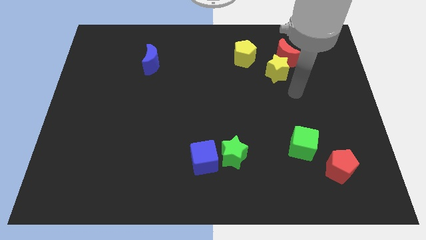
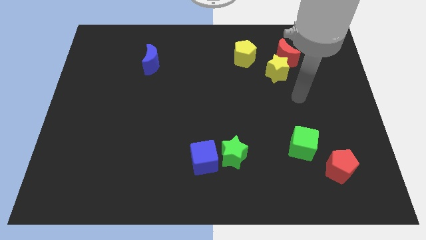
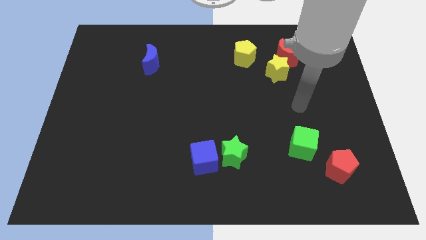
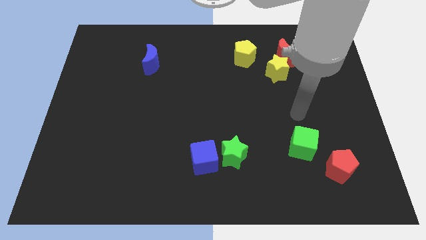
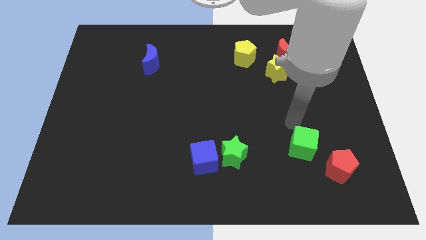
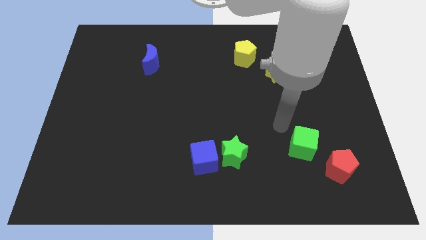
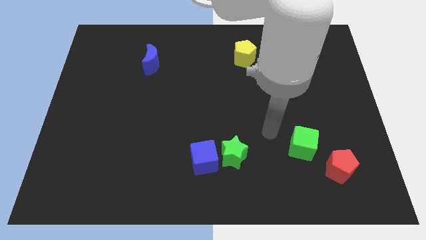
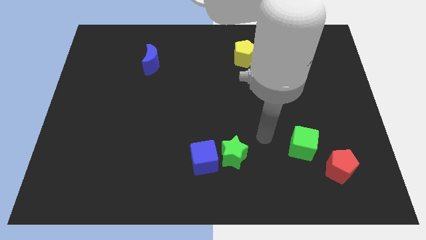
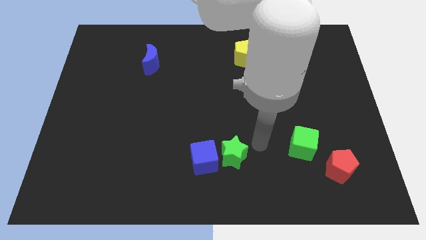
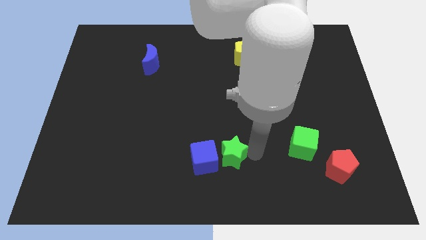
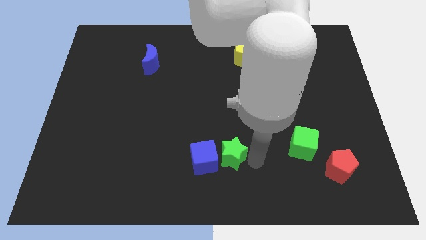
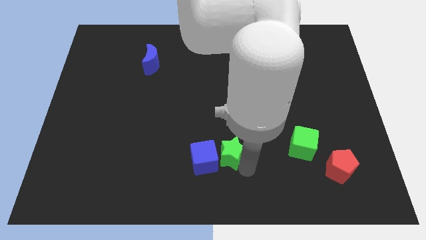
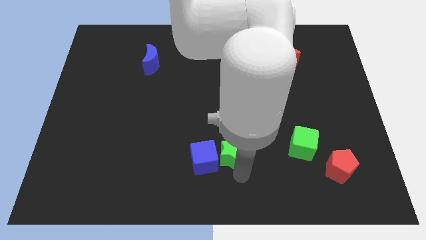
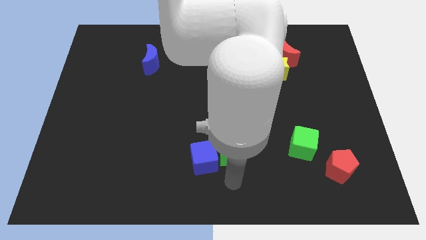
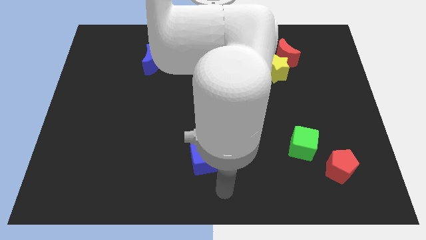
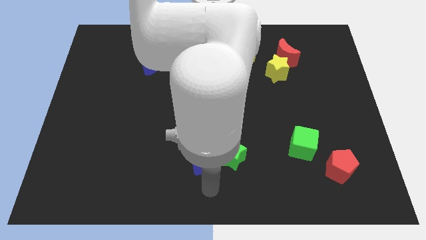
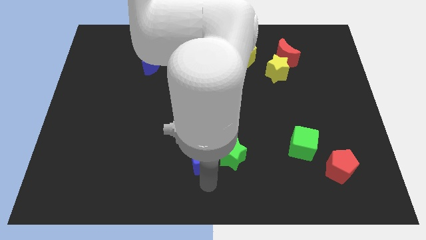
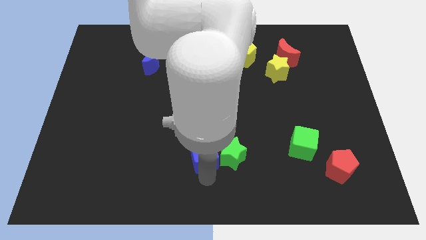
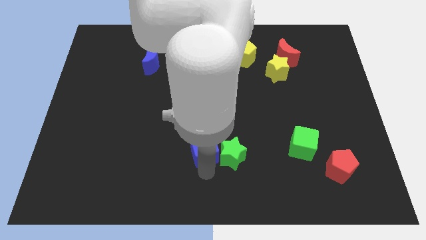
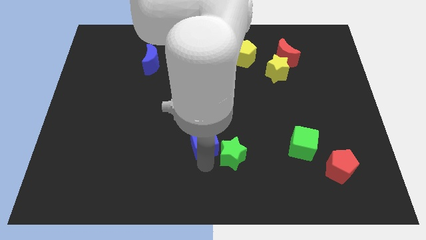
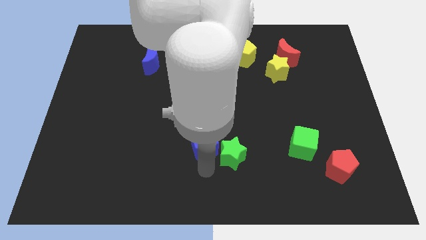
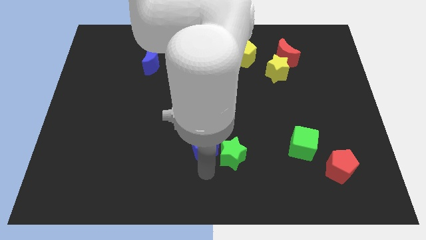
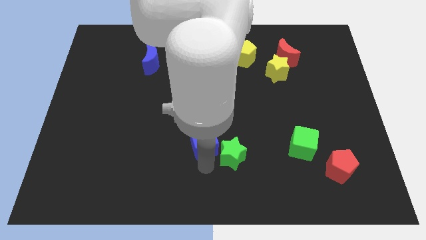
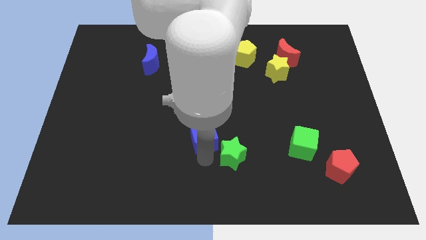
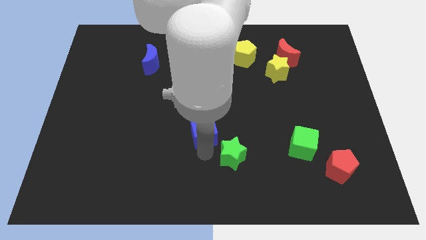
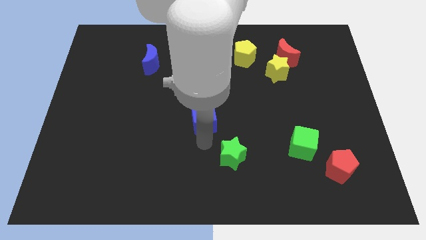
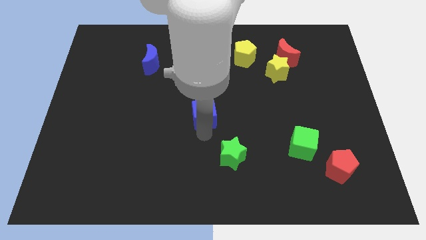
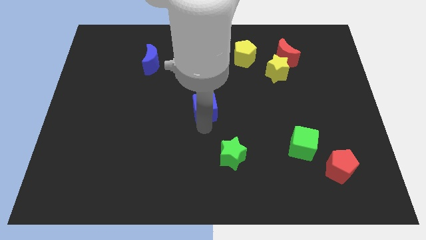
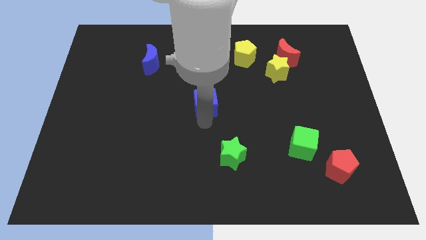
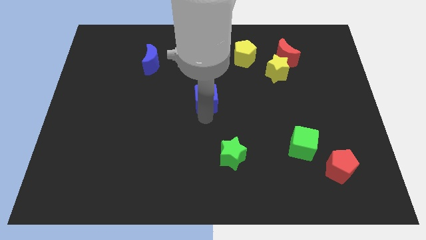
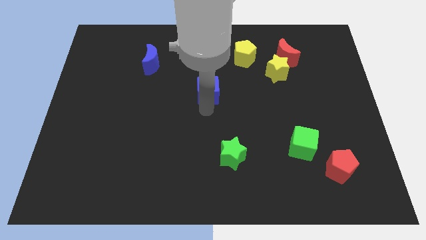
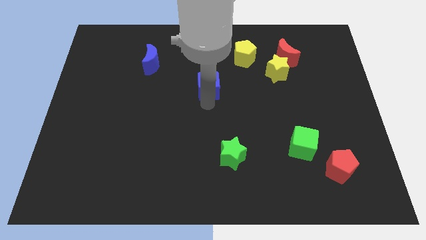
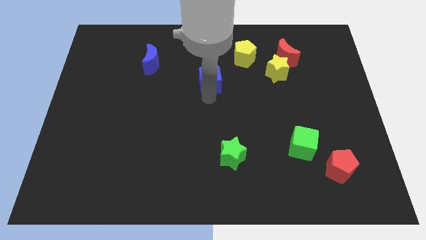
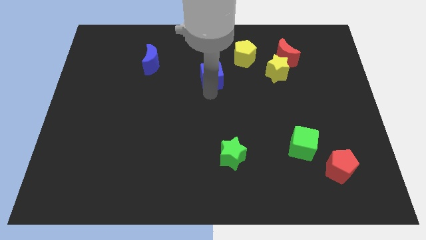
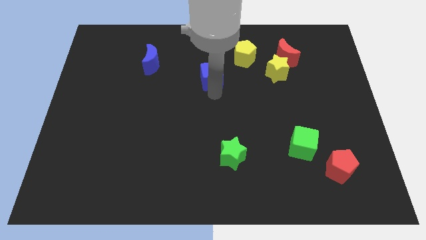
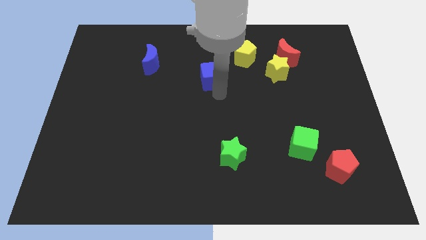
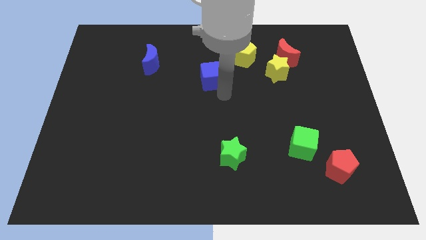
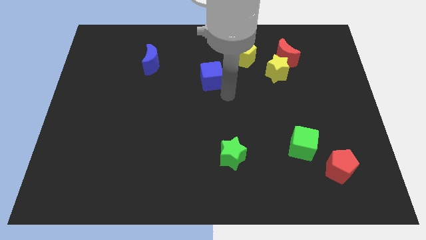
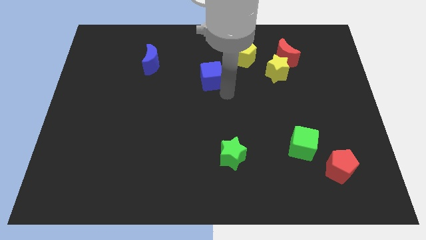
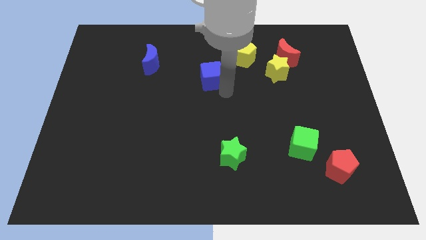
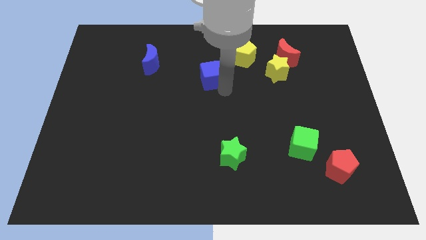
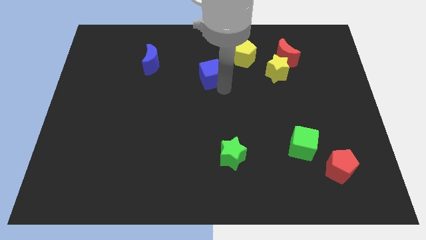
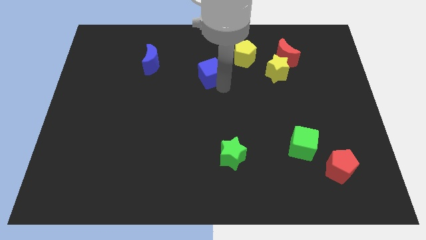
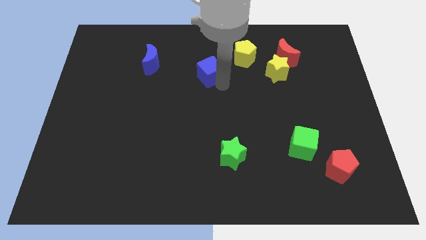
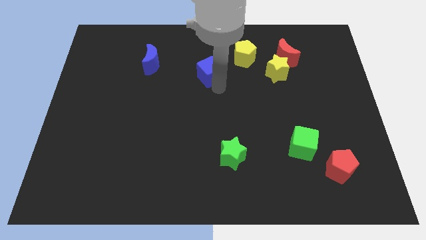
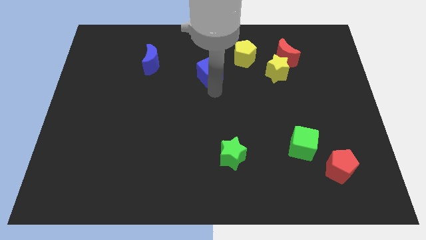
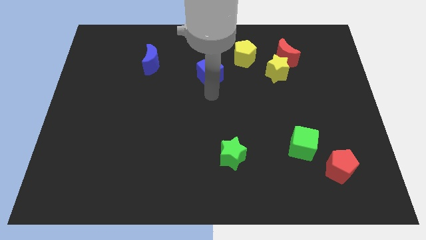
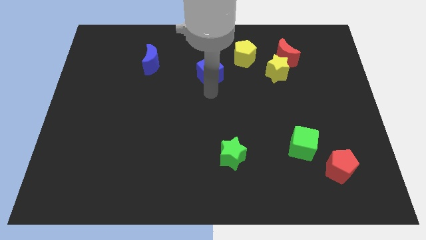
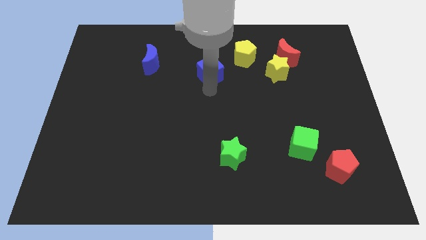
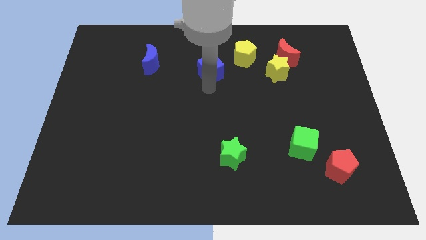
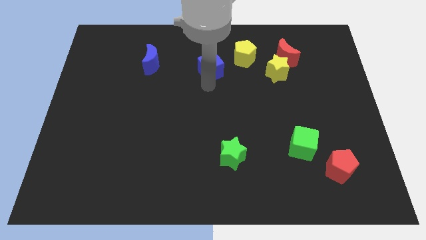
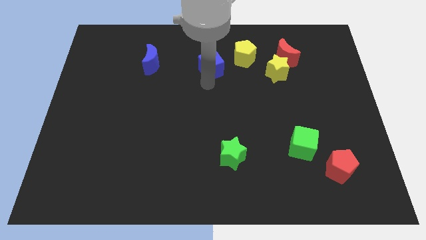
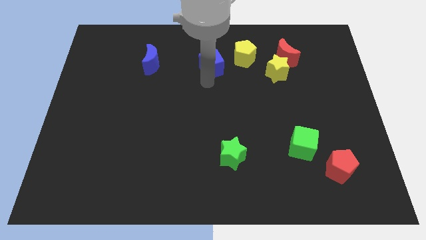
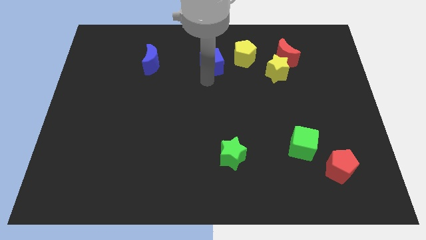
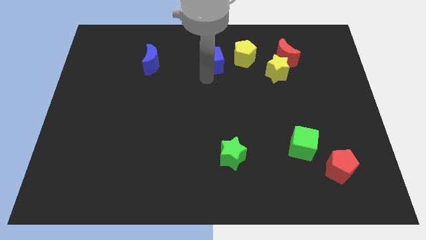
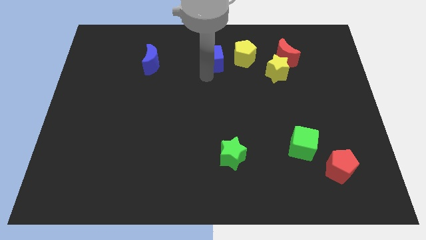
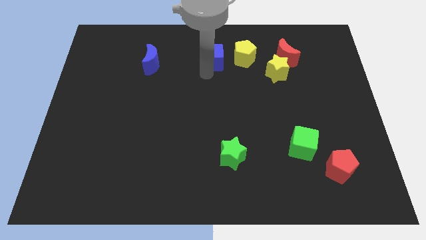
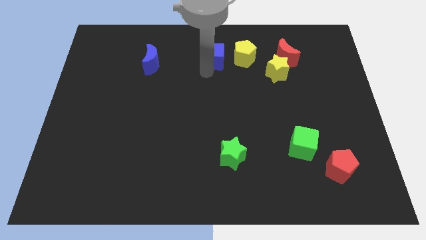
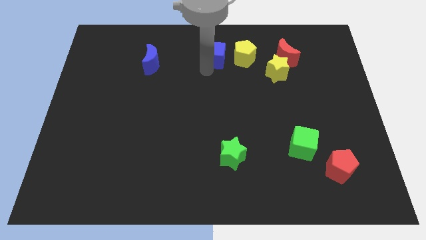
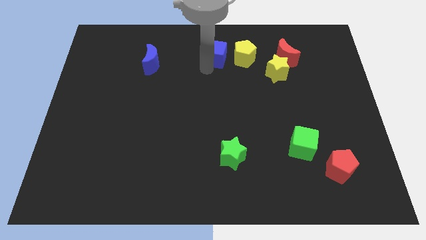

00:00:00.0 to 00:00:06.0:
move the blue cube to the towards your base
